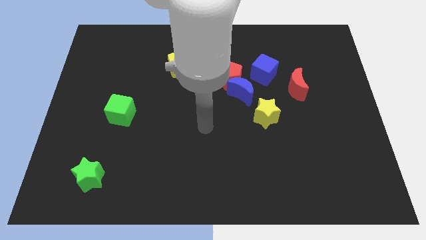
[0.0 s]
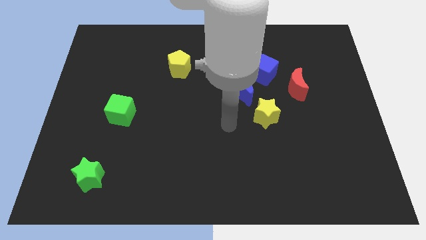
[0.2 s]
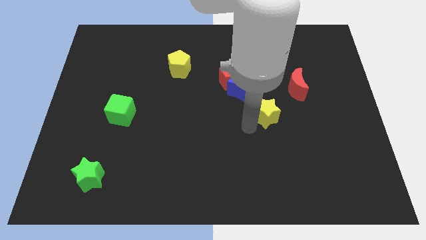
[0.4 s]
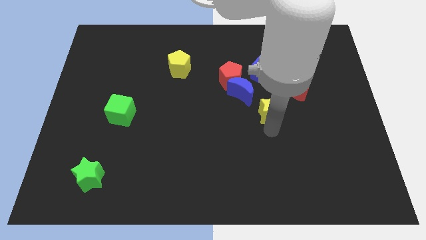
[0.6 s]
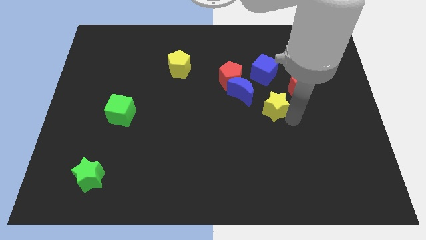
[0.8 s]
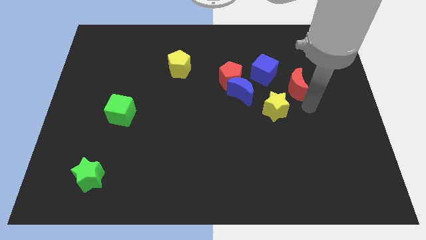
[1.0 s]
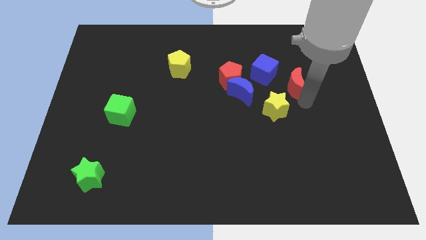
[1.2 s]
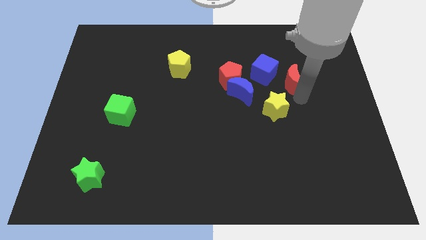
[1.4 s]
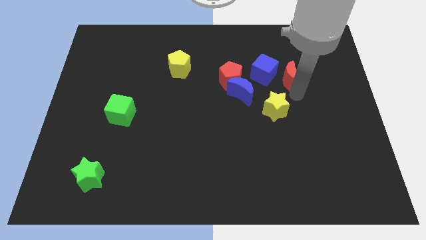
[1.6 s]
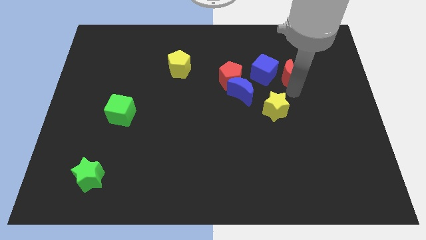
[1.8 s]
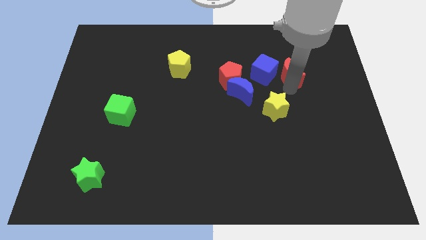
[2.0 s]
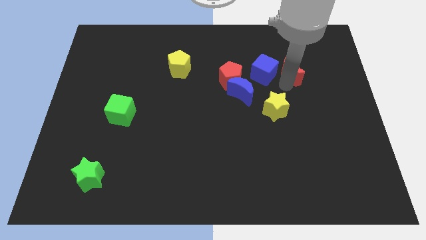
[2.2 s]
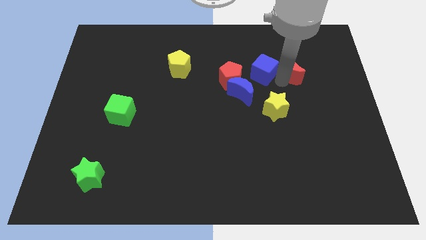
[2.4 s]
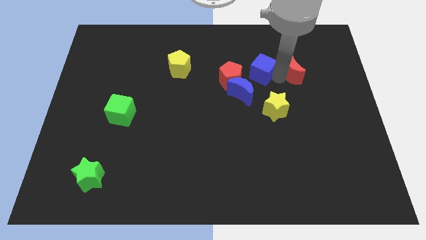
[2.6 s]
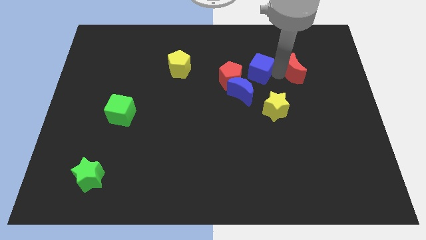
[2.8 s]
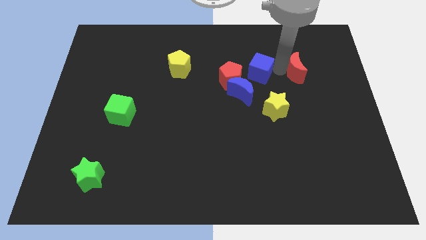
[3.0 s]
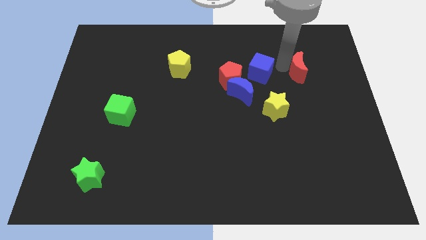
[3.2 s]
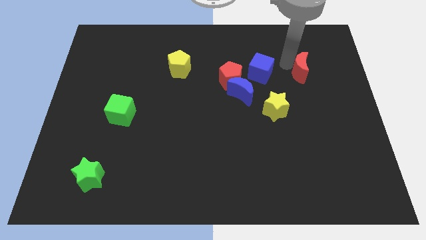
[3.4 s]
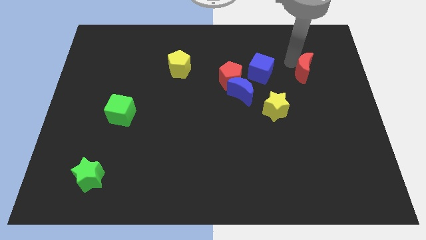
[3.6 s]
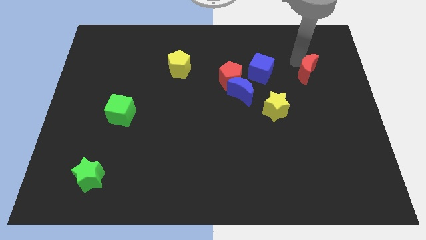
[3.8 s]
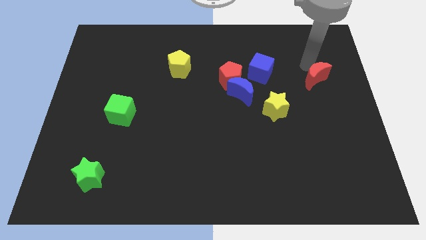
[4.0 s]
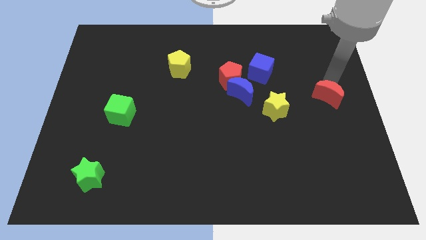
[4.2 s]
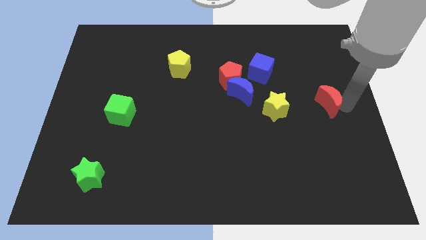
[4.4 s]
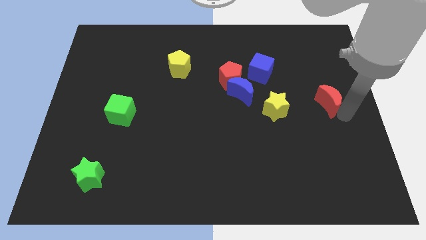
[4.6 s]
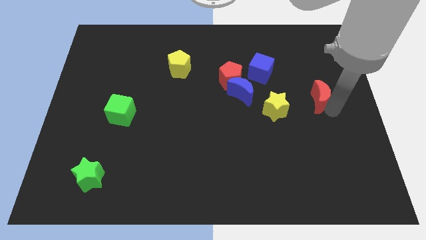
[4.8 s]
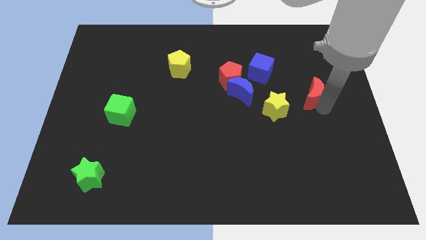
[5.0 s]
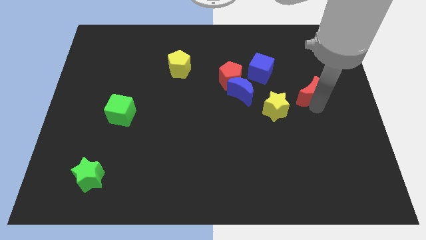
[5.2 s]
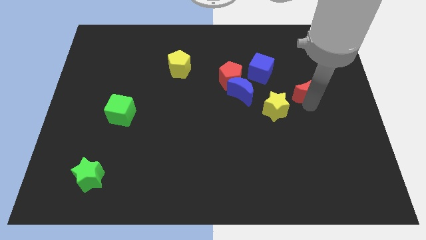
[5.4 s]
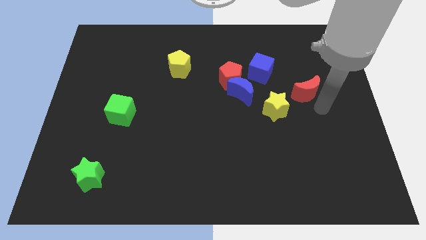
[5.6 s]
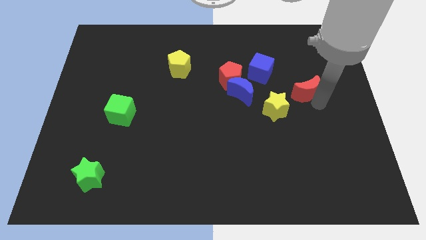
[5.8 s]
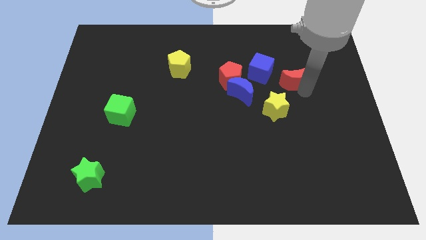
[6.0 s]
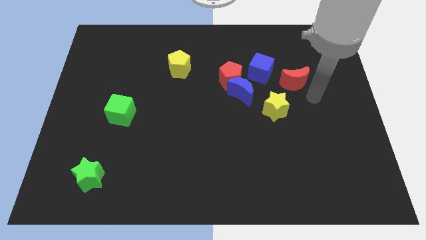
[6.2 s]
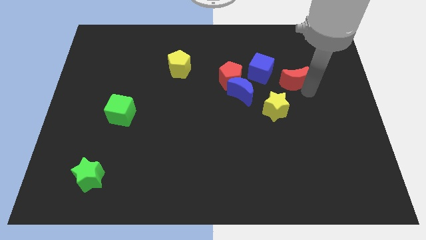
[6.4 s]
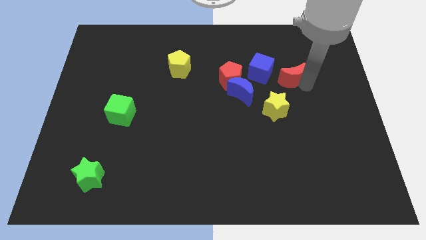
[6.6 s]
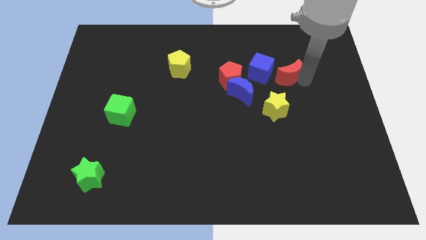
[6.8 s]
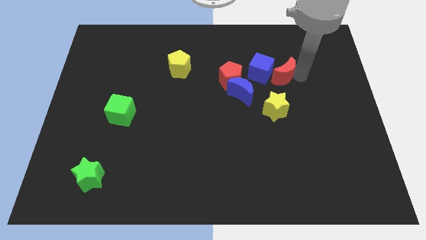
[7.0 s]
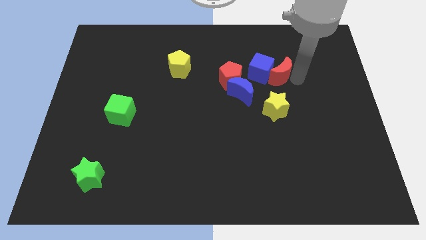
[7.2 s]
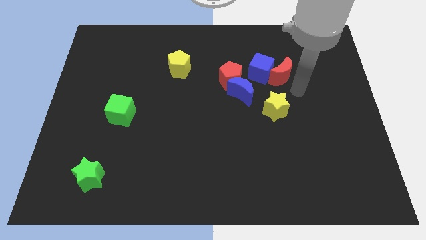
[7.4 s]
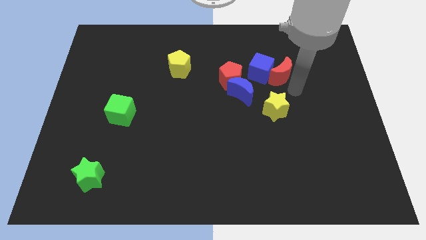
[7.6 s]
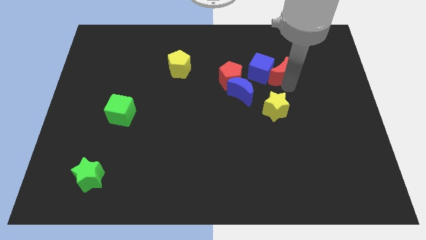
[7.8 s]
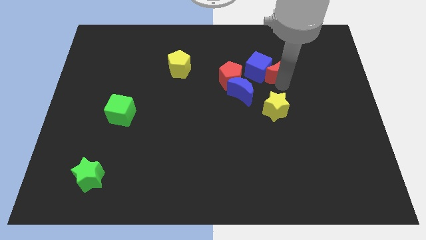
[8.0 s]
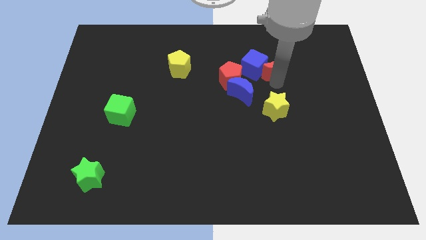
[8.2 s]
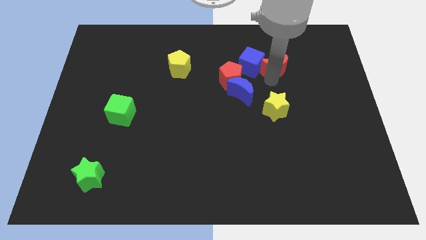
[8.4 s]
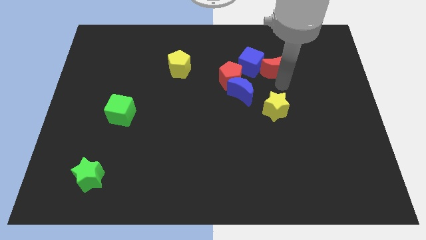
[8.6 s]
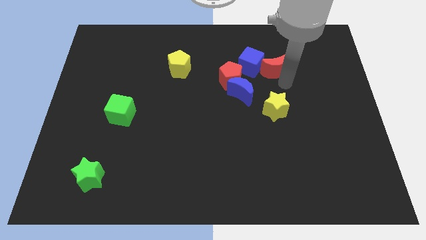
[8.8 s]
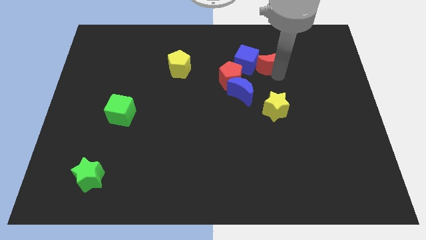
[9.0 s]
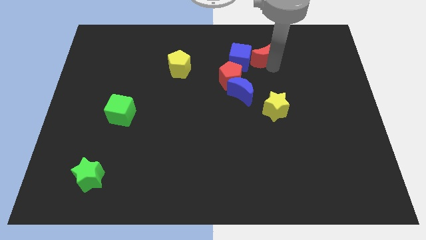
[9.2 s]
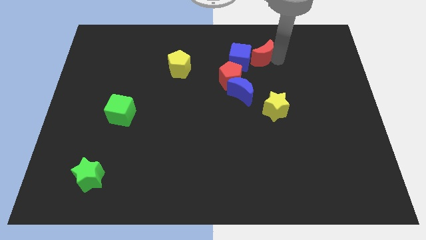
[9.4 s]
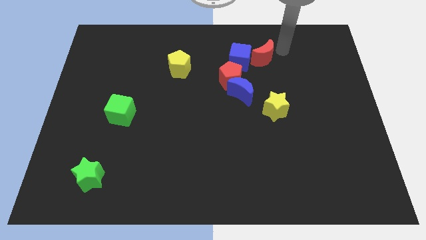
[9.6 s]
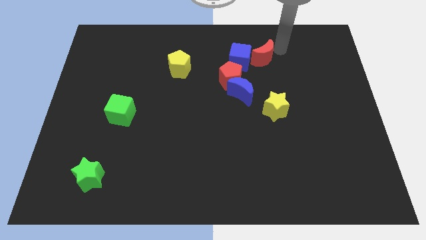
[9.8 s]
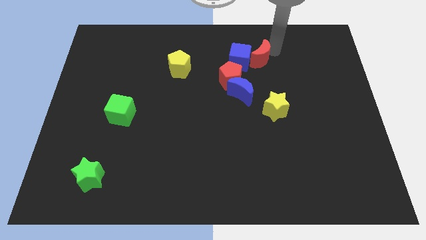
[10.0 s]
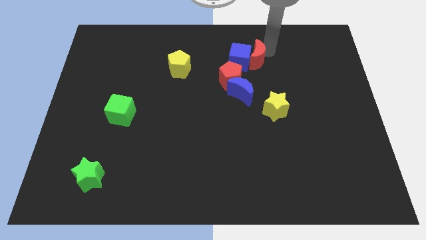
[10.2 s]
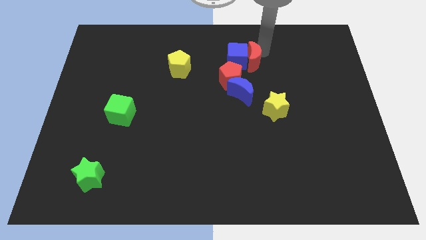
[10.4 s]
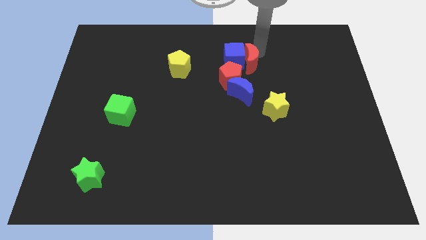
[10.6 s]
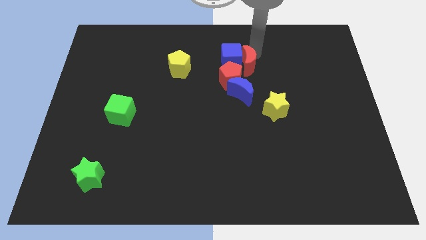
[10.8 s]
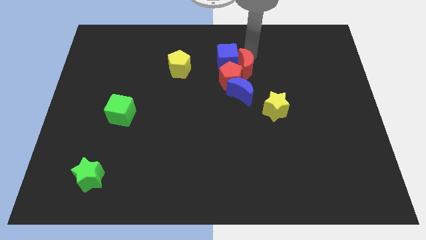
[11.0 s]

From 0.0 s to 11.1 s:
put the red moon to the red pentagon

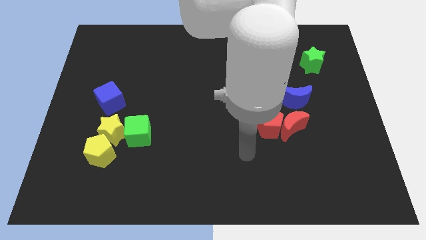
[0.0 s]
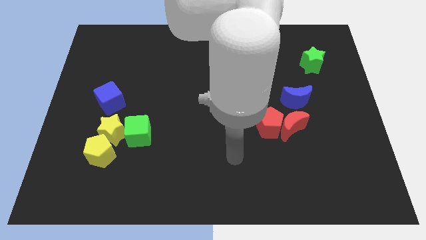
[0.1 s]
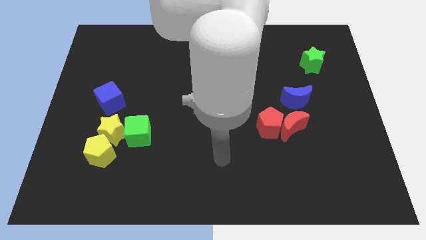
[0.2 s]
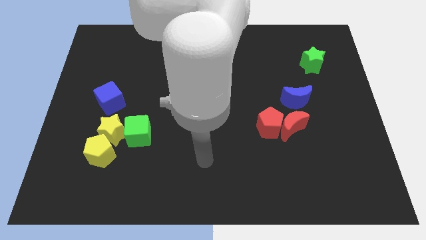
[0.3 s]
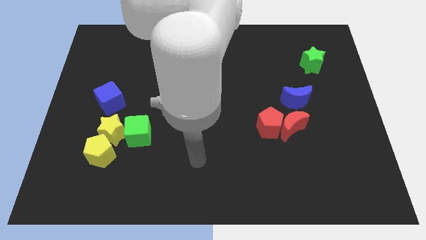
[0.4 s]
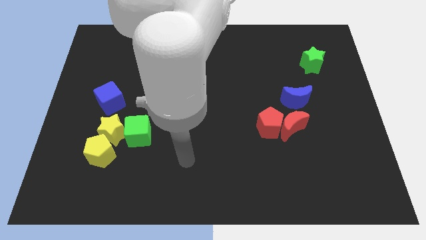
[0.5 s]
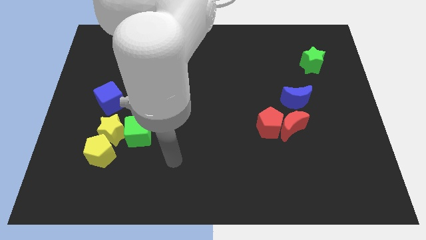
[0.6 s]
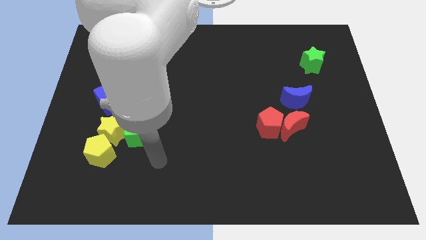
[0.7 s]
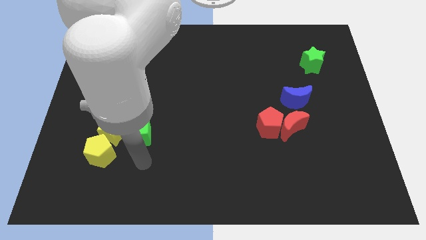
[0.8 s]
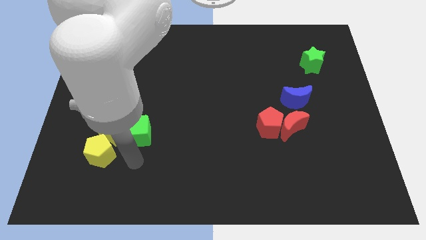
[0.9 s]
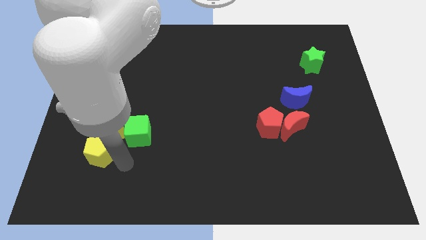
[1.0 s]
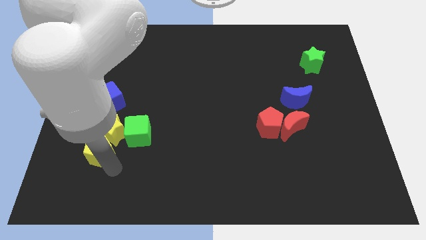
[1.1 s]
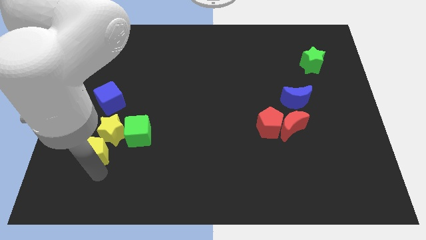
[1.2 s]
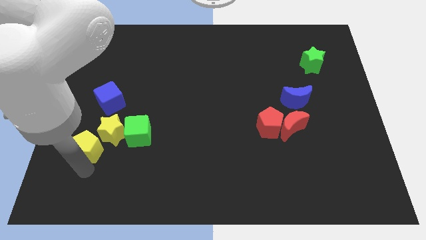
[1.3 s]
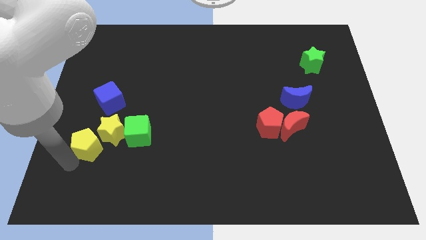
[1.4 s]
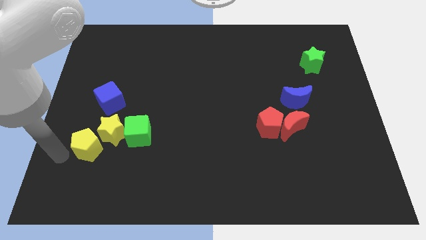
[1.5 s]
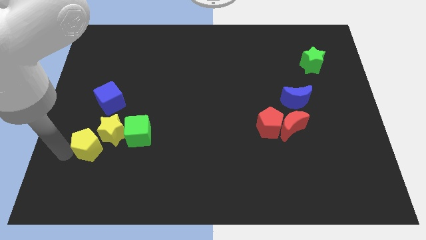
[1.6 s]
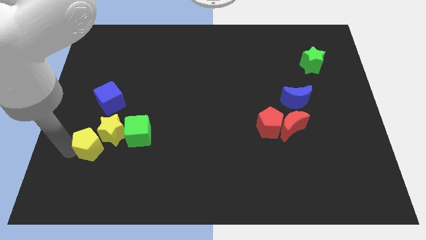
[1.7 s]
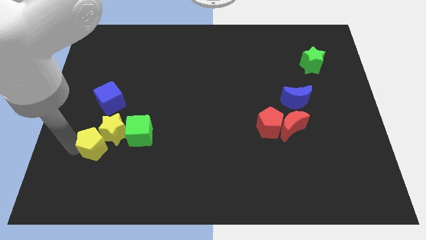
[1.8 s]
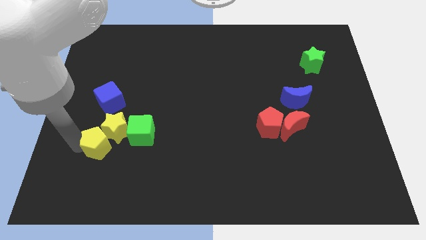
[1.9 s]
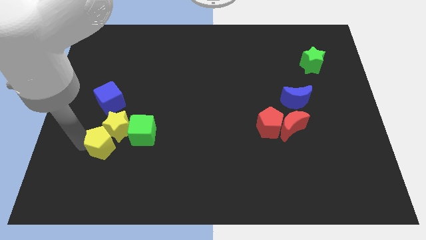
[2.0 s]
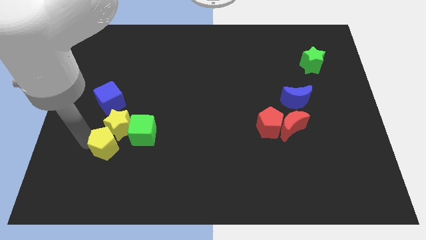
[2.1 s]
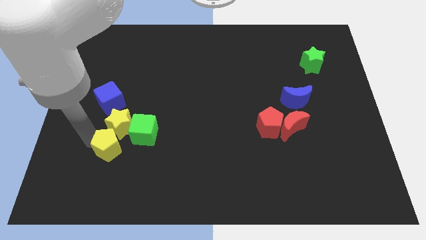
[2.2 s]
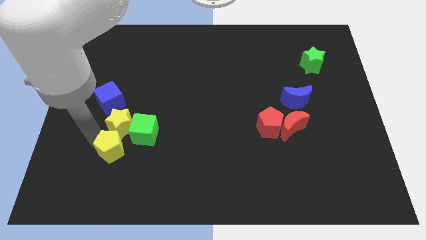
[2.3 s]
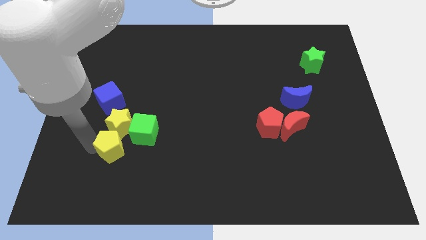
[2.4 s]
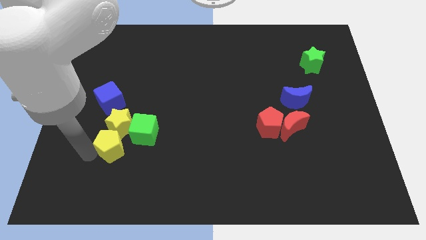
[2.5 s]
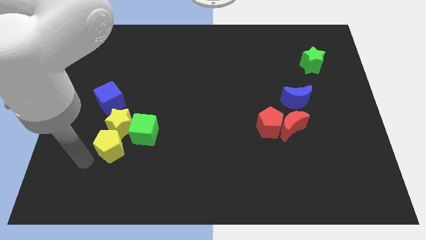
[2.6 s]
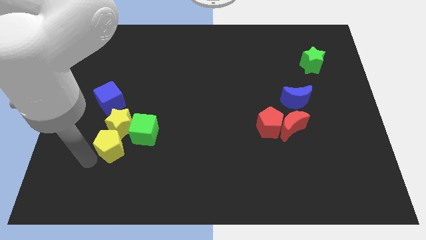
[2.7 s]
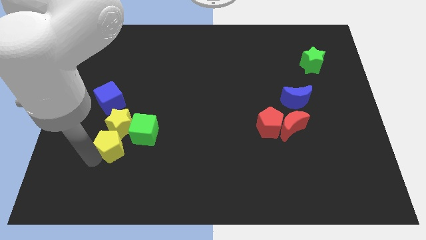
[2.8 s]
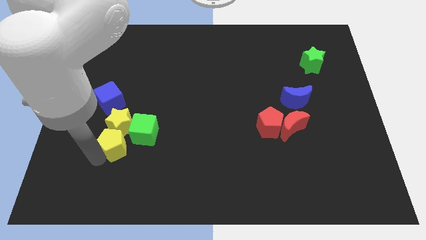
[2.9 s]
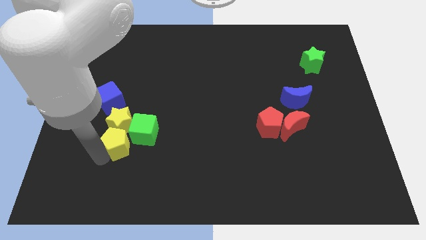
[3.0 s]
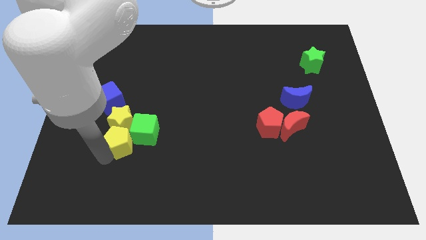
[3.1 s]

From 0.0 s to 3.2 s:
push the yellow pentagon to the green cube
